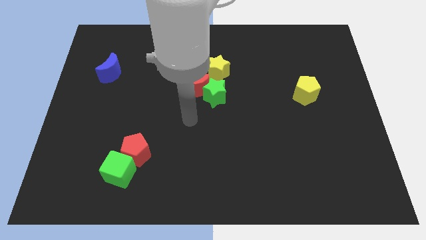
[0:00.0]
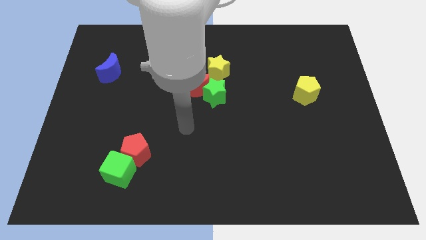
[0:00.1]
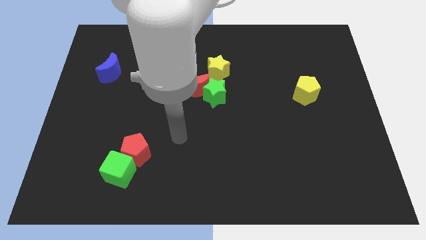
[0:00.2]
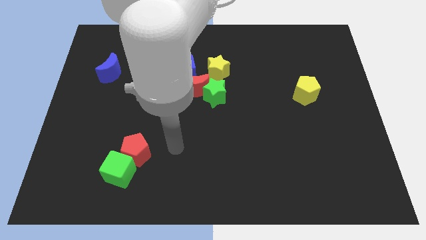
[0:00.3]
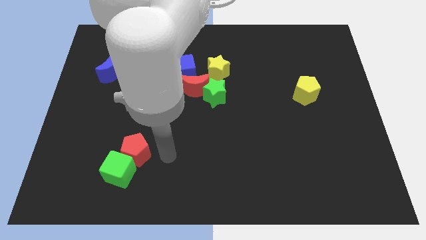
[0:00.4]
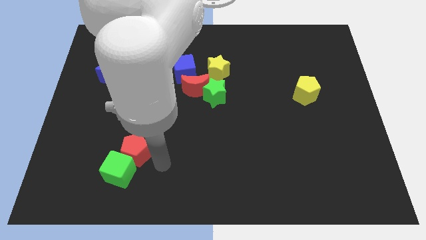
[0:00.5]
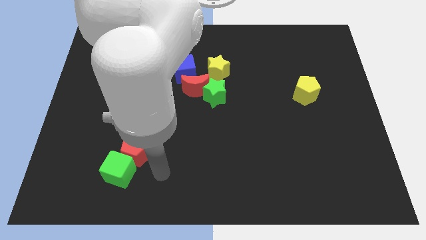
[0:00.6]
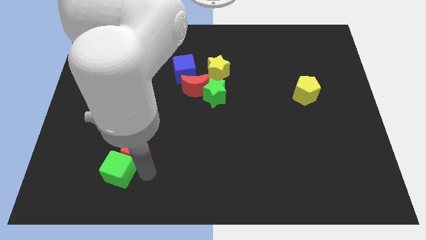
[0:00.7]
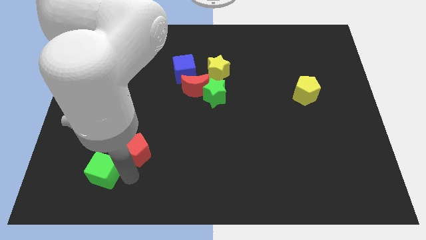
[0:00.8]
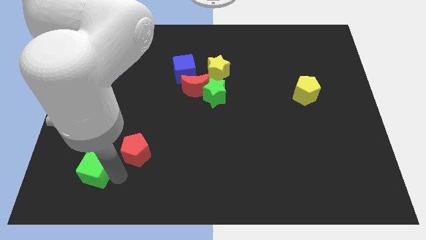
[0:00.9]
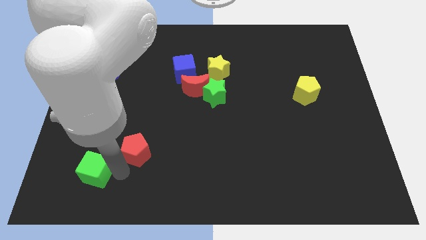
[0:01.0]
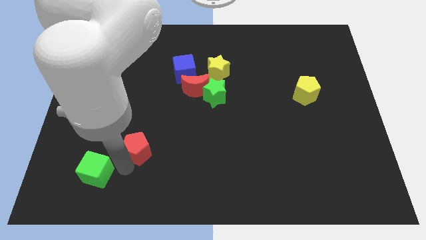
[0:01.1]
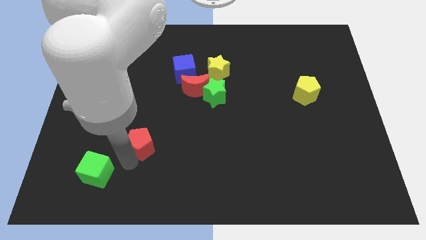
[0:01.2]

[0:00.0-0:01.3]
move the red pentagon away from the green cube

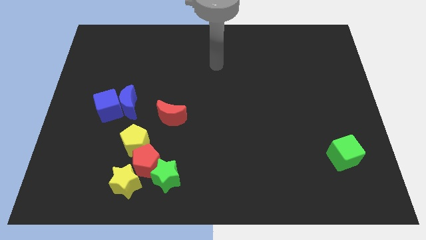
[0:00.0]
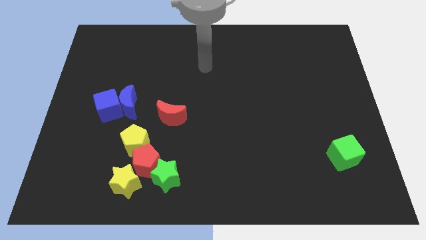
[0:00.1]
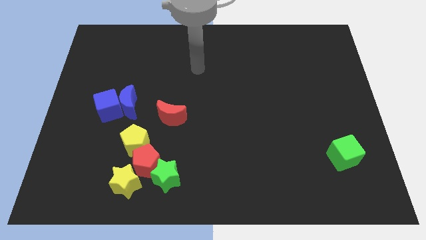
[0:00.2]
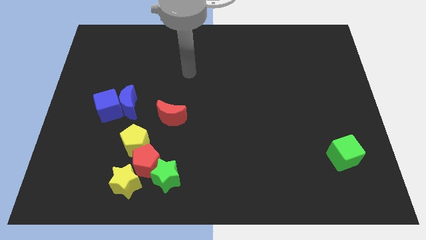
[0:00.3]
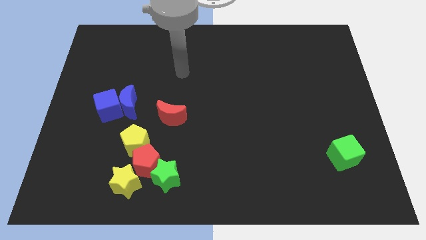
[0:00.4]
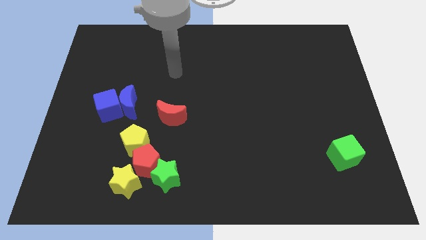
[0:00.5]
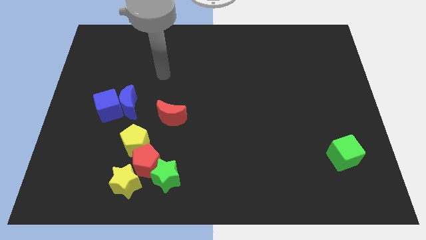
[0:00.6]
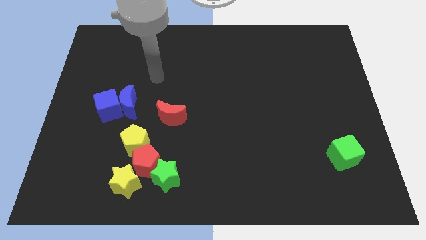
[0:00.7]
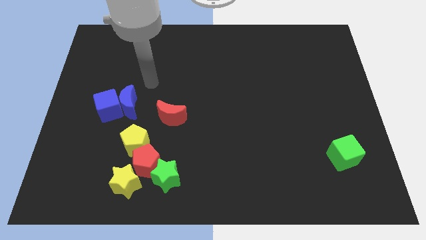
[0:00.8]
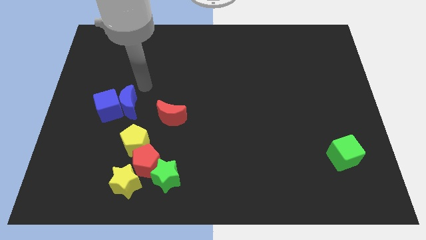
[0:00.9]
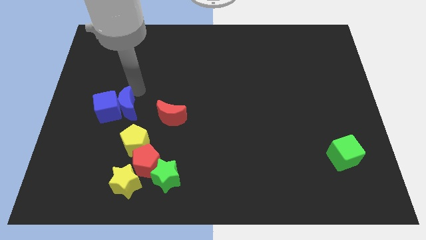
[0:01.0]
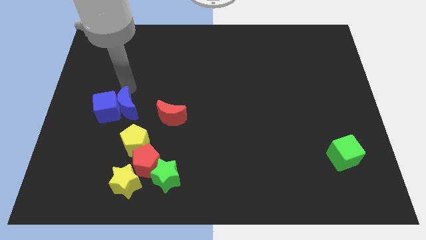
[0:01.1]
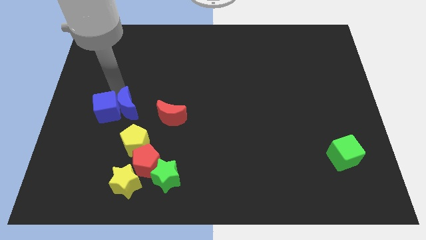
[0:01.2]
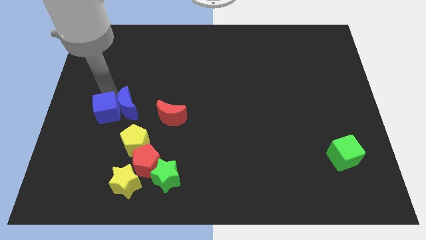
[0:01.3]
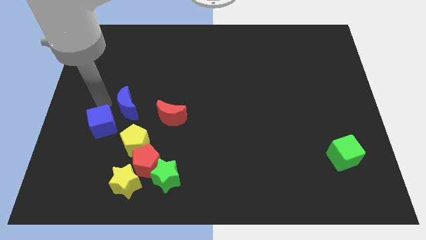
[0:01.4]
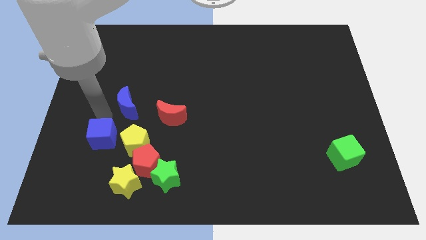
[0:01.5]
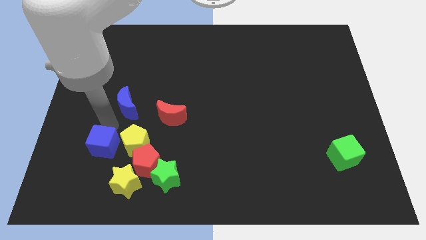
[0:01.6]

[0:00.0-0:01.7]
pull the blue moon apart from the blue cube

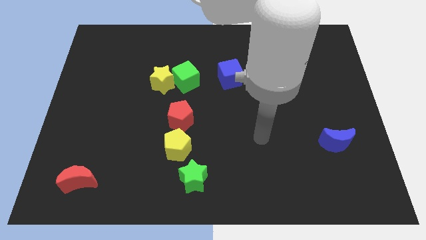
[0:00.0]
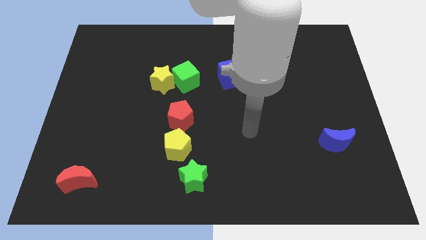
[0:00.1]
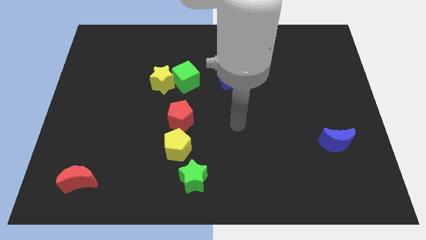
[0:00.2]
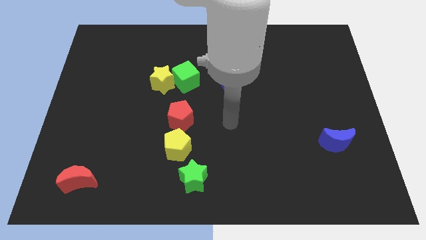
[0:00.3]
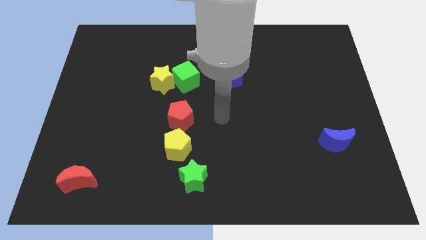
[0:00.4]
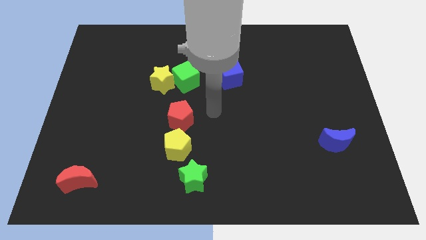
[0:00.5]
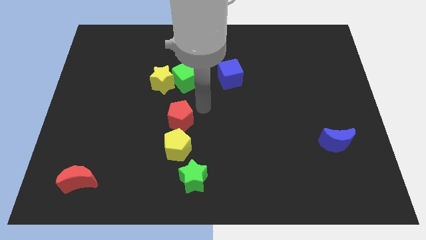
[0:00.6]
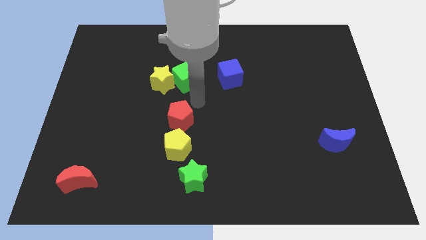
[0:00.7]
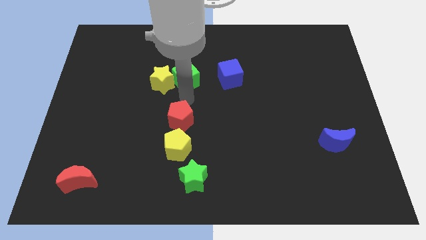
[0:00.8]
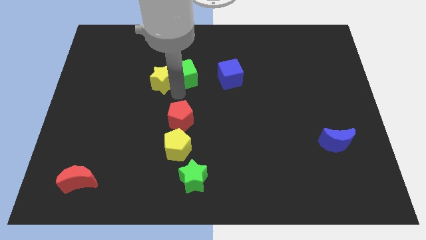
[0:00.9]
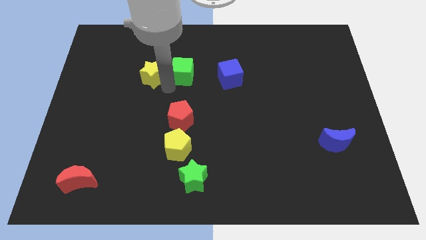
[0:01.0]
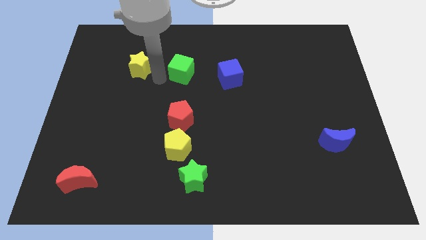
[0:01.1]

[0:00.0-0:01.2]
separate the green cube from the yellow star

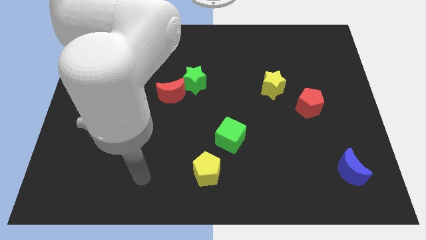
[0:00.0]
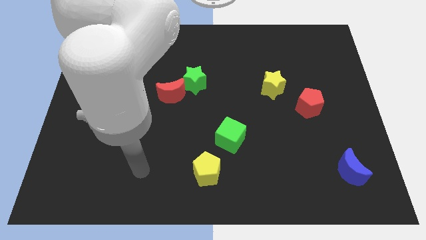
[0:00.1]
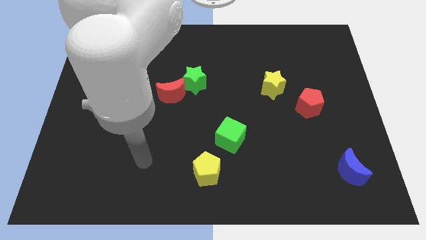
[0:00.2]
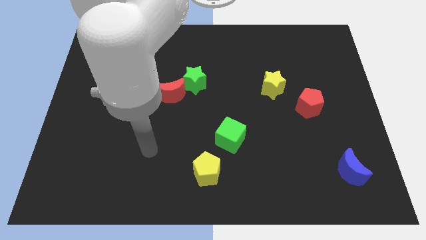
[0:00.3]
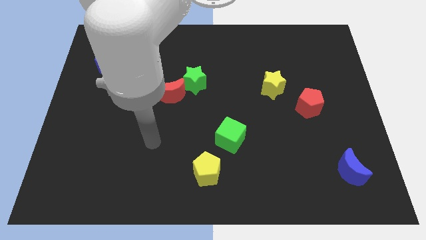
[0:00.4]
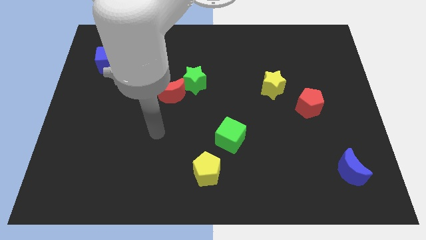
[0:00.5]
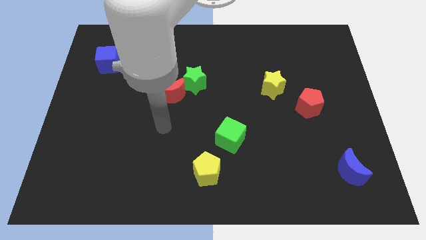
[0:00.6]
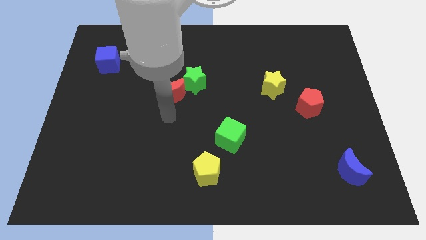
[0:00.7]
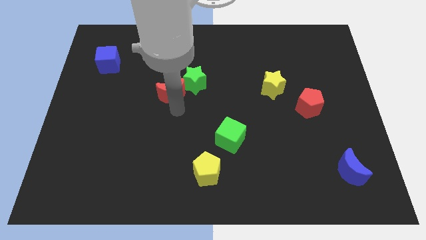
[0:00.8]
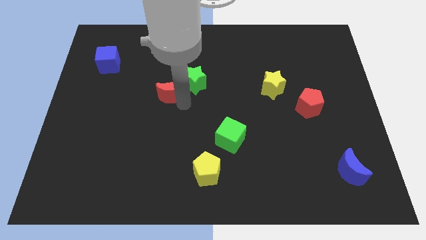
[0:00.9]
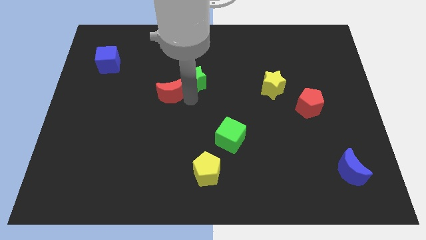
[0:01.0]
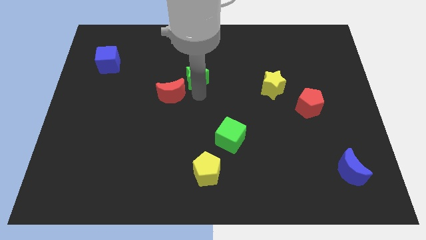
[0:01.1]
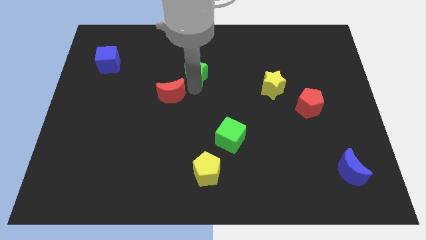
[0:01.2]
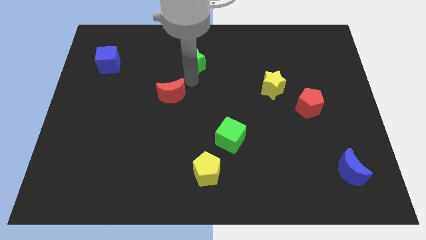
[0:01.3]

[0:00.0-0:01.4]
pull the red moon apart from the green star

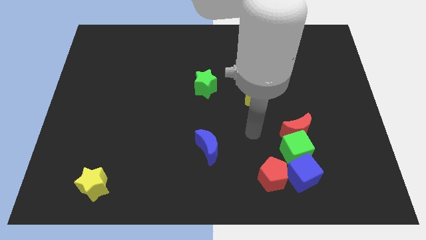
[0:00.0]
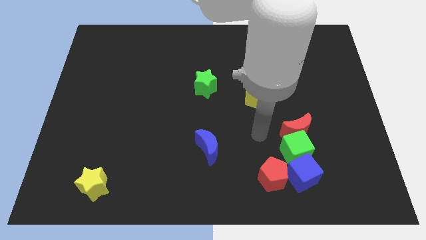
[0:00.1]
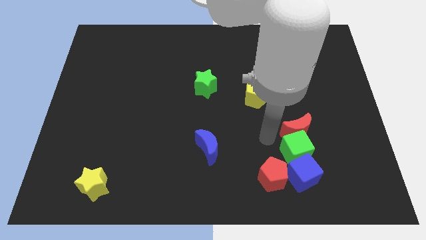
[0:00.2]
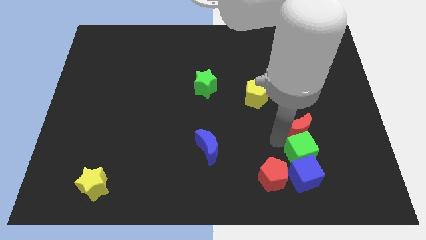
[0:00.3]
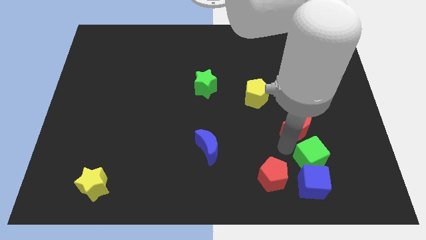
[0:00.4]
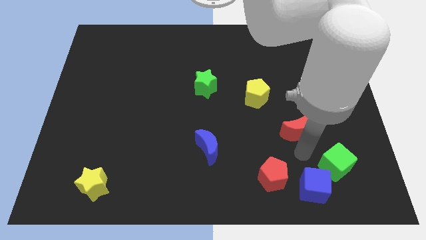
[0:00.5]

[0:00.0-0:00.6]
pull the red moon apart from the green cube

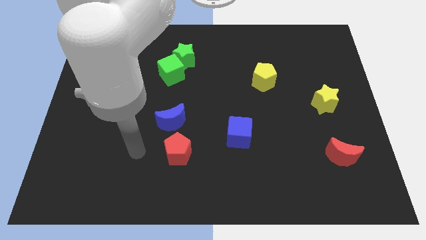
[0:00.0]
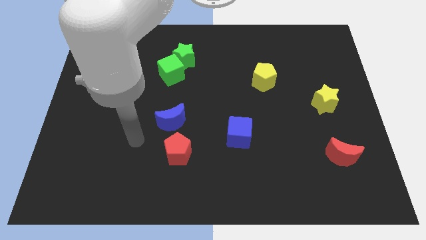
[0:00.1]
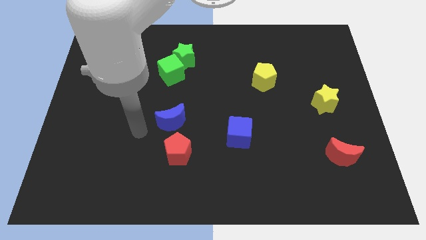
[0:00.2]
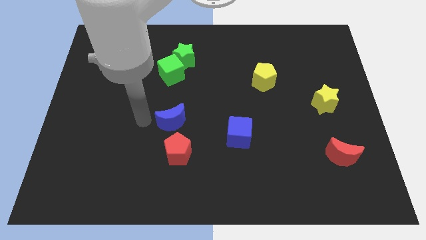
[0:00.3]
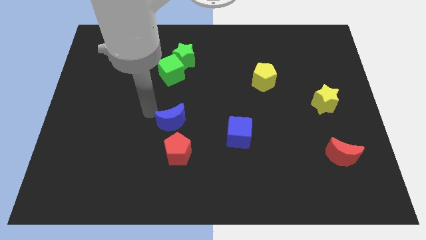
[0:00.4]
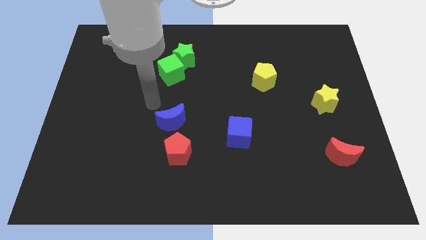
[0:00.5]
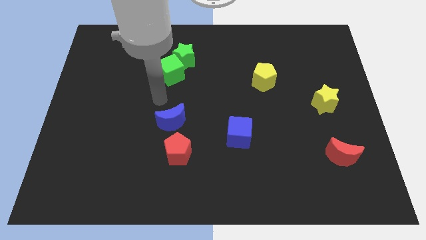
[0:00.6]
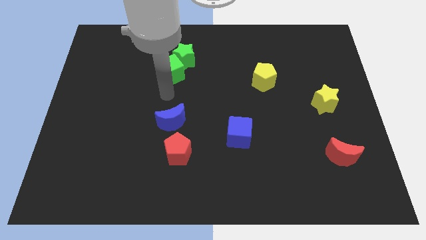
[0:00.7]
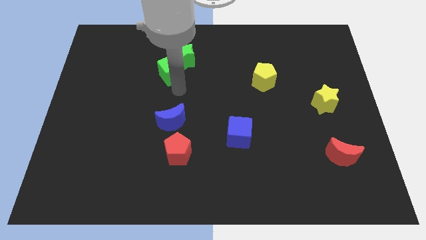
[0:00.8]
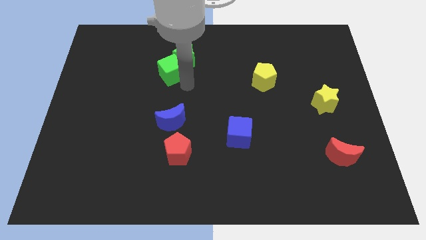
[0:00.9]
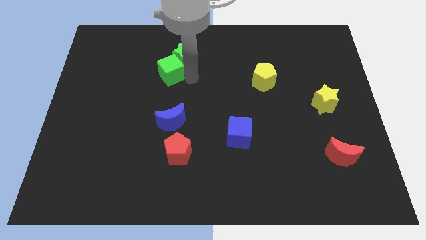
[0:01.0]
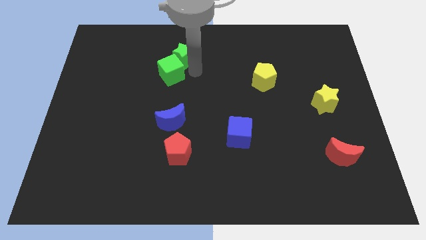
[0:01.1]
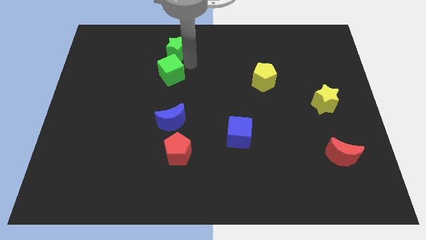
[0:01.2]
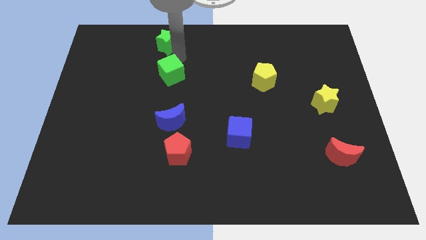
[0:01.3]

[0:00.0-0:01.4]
separate the green cube from the green star

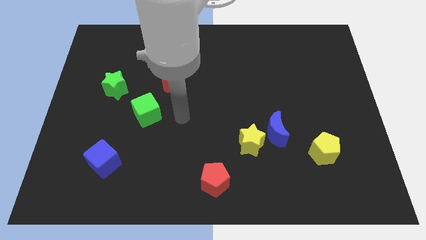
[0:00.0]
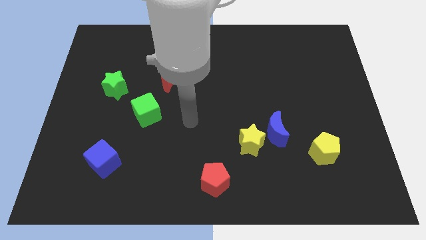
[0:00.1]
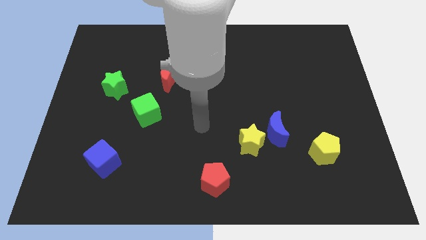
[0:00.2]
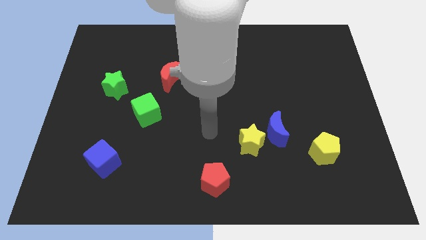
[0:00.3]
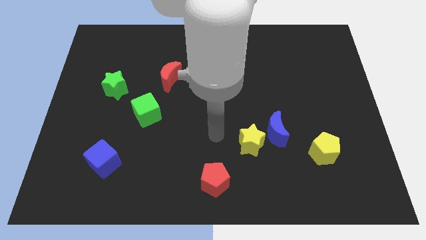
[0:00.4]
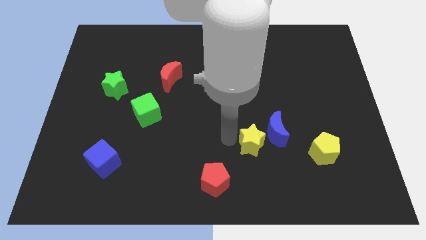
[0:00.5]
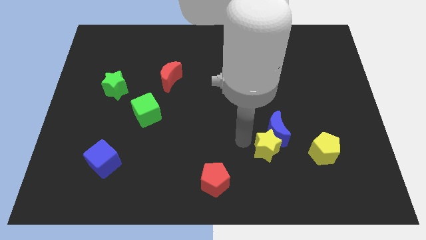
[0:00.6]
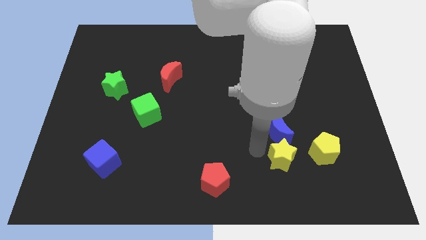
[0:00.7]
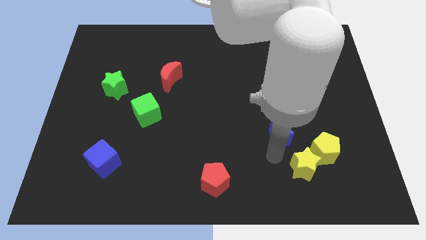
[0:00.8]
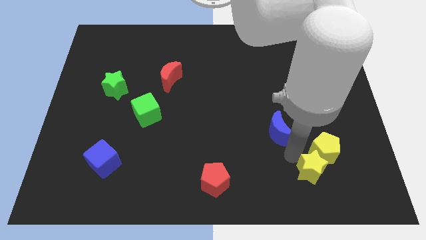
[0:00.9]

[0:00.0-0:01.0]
separate the blue moon from the yellow star

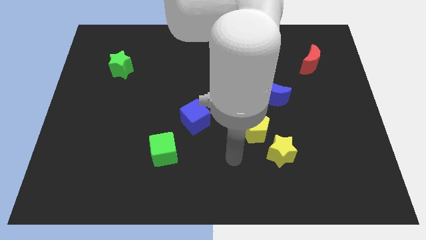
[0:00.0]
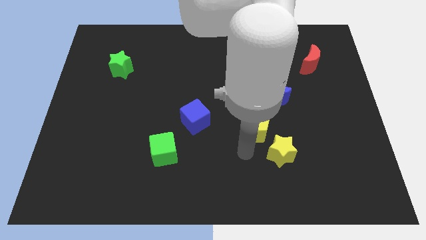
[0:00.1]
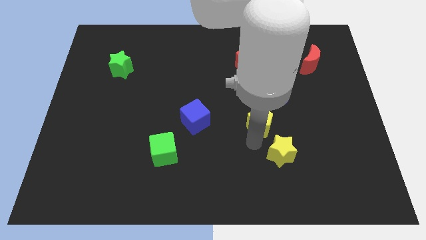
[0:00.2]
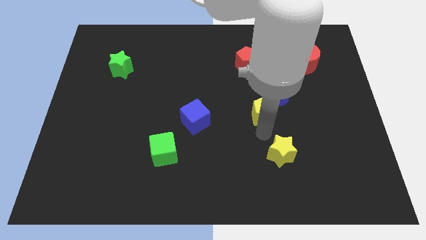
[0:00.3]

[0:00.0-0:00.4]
pull the yellow star apart from the yellow pentagon

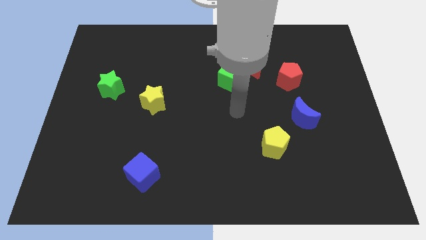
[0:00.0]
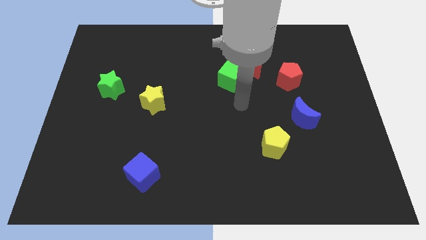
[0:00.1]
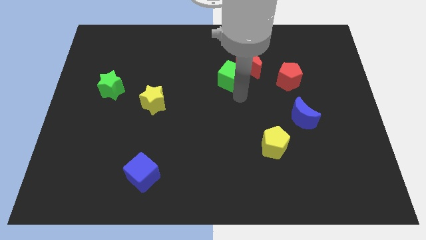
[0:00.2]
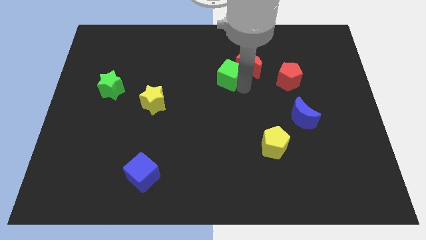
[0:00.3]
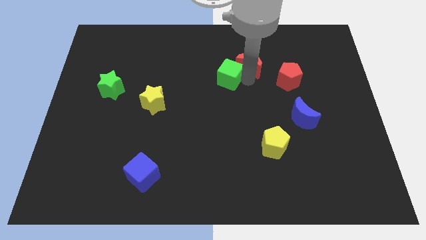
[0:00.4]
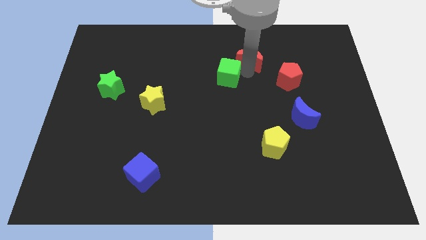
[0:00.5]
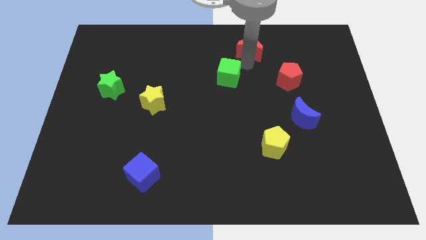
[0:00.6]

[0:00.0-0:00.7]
pull the green cube apart from the red moon
